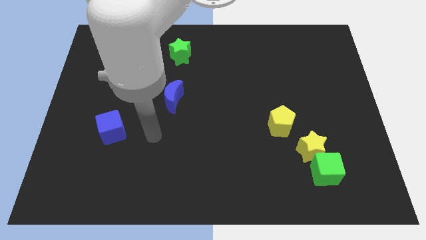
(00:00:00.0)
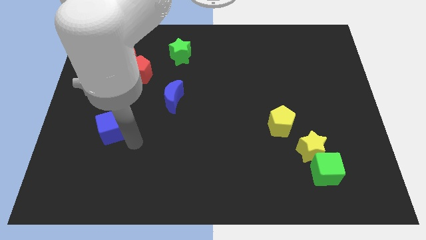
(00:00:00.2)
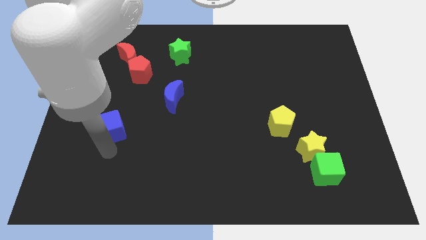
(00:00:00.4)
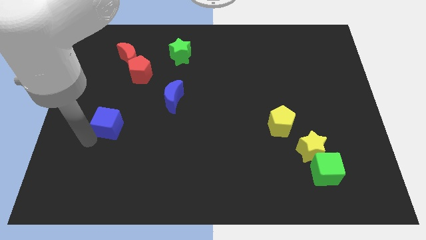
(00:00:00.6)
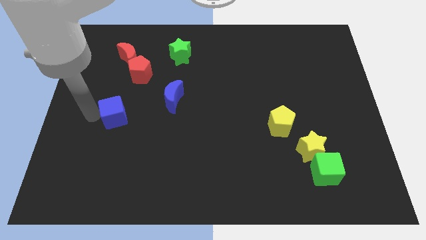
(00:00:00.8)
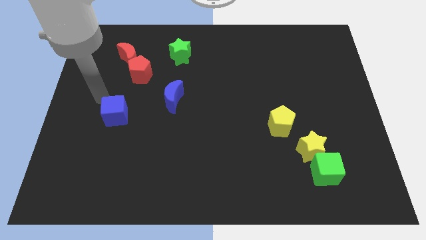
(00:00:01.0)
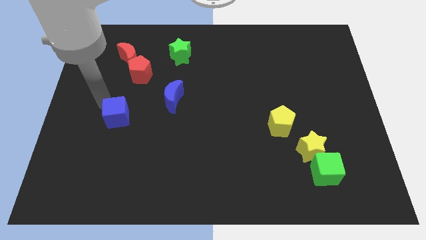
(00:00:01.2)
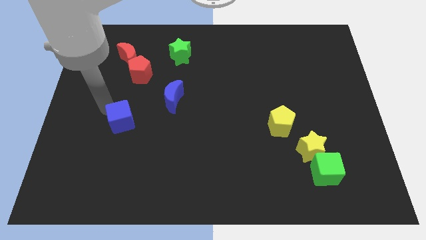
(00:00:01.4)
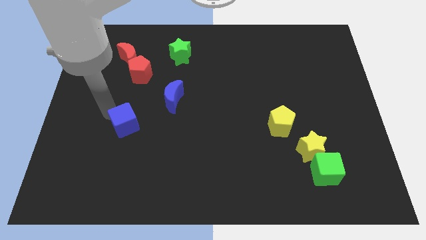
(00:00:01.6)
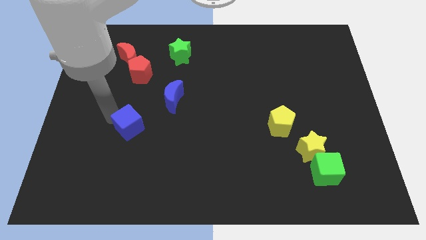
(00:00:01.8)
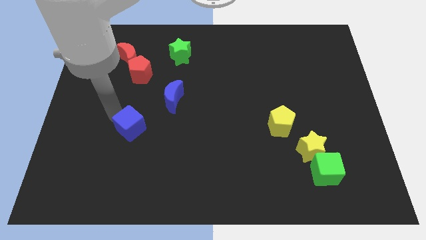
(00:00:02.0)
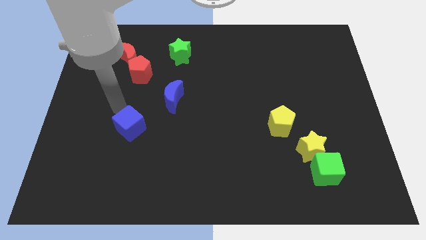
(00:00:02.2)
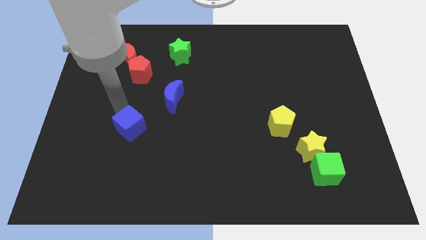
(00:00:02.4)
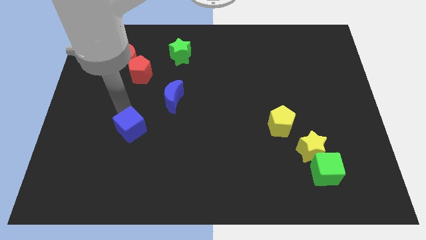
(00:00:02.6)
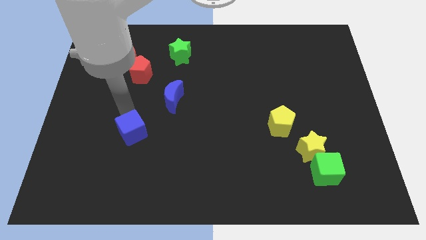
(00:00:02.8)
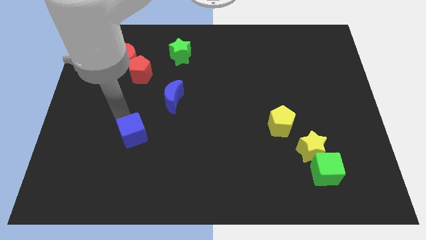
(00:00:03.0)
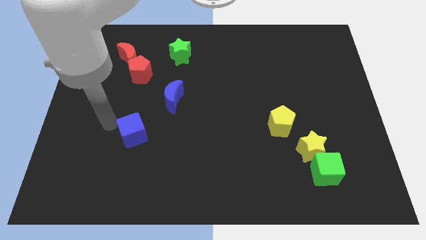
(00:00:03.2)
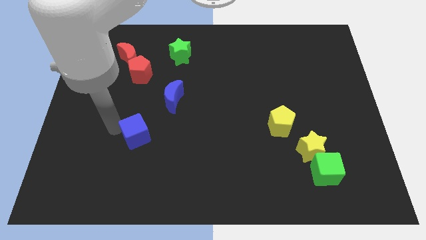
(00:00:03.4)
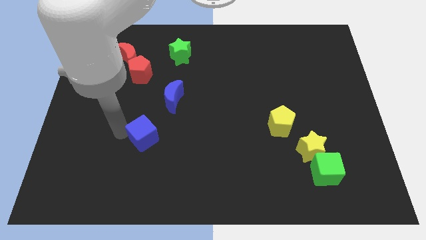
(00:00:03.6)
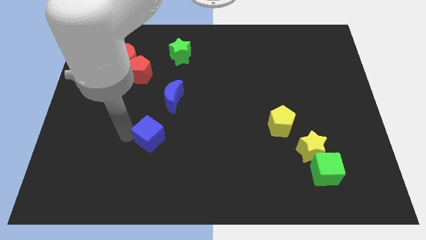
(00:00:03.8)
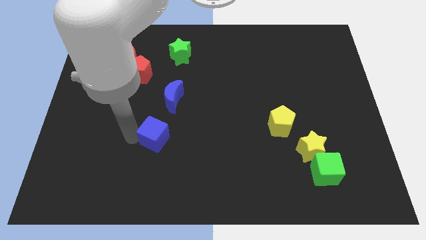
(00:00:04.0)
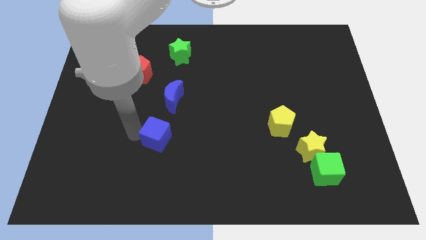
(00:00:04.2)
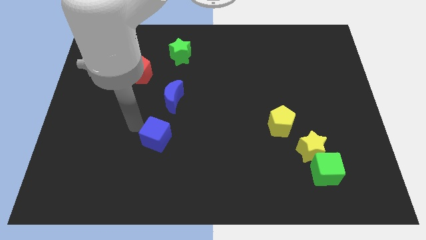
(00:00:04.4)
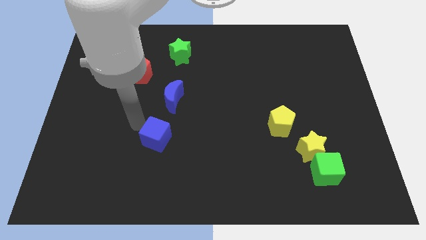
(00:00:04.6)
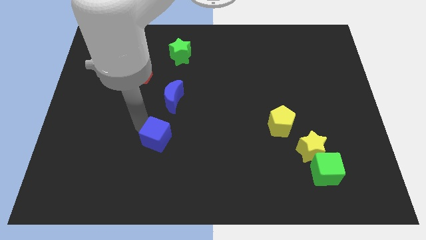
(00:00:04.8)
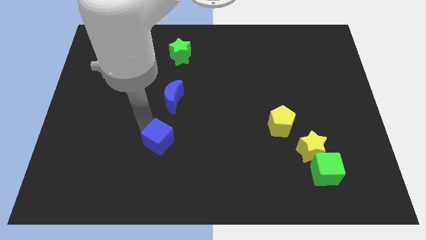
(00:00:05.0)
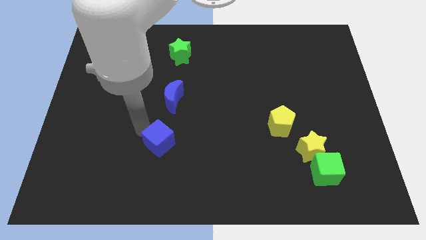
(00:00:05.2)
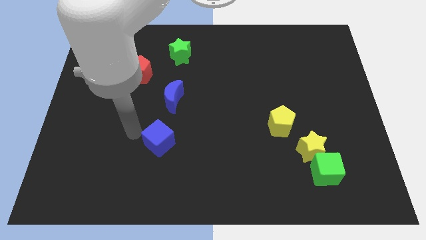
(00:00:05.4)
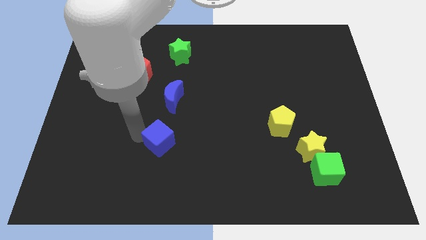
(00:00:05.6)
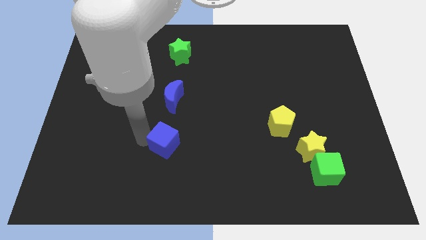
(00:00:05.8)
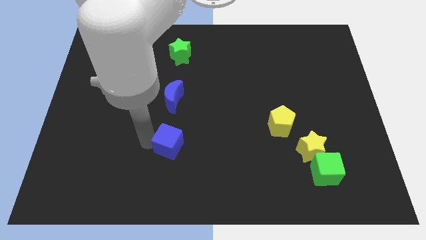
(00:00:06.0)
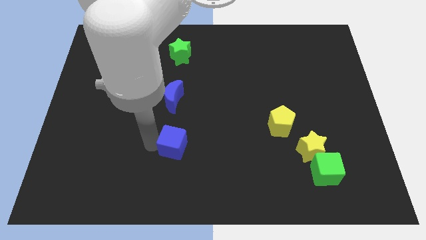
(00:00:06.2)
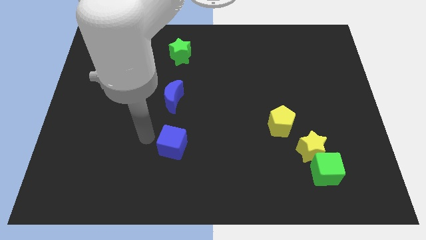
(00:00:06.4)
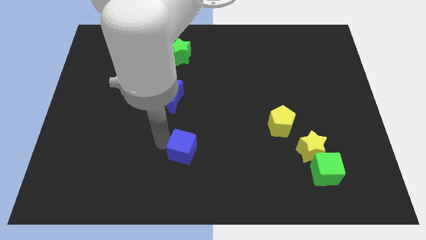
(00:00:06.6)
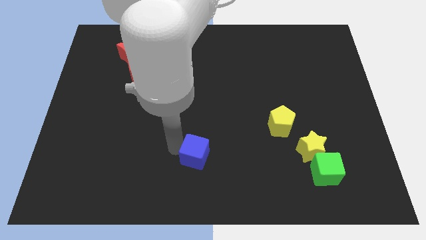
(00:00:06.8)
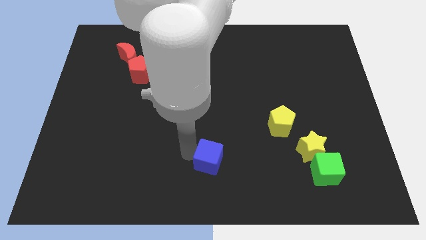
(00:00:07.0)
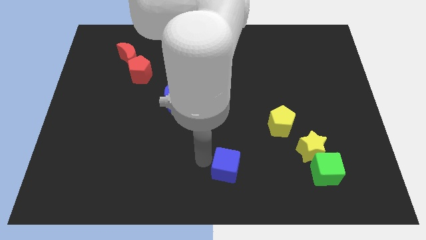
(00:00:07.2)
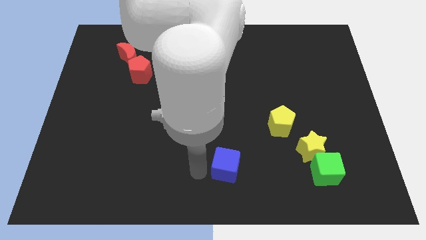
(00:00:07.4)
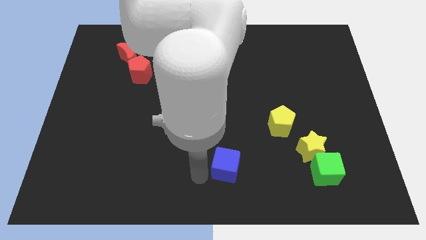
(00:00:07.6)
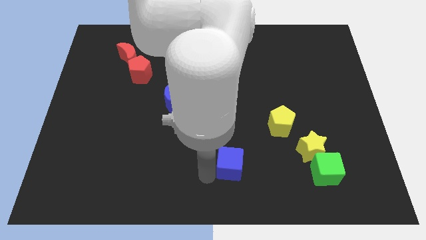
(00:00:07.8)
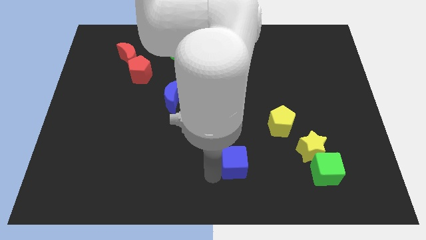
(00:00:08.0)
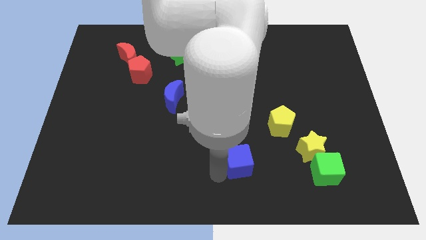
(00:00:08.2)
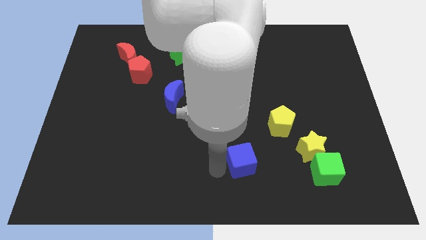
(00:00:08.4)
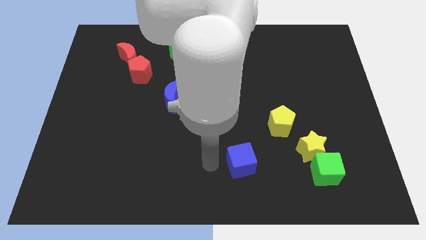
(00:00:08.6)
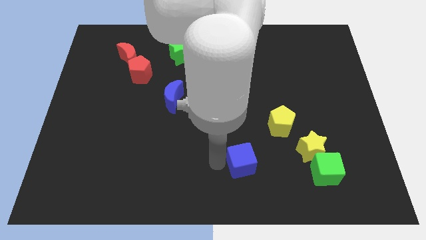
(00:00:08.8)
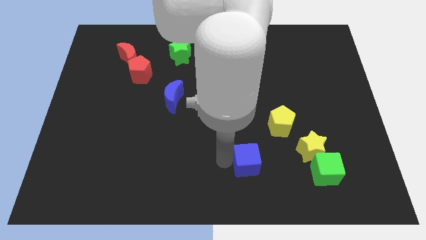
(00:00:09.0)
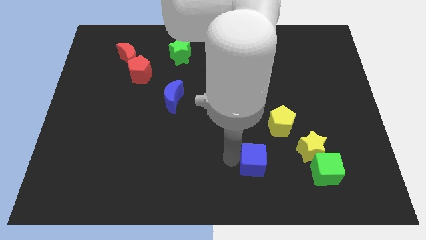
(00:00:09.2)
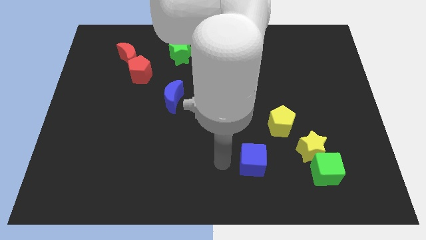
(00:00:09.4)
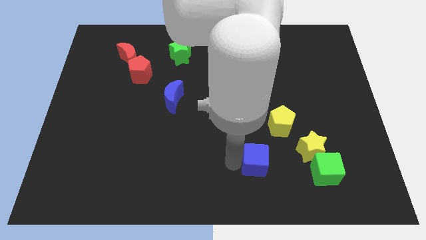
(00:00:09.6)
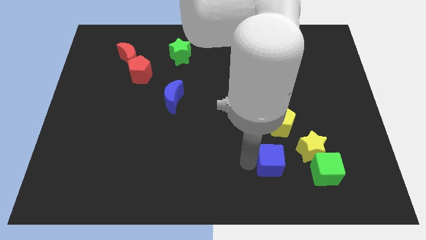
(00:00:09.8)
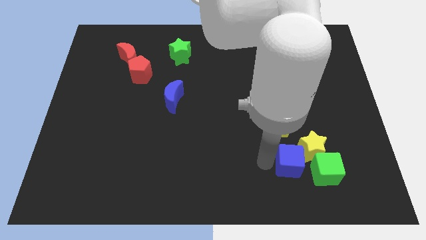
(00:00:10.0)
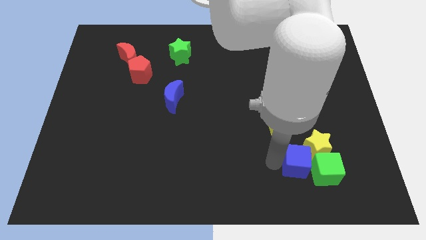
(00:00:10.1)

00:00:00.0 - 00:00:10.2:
slide the blue cube next to the green cube

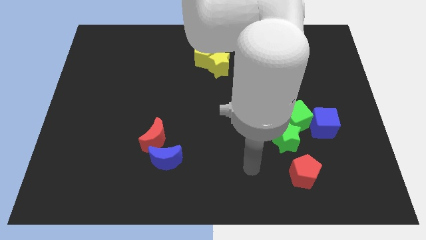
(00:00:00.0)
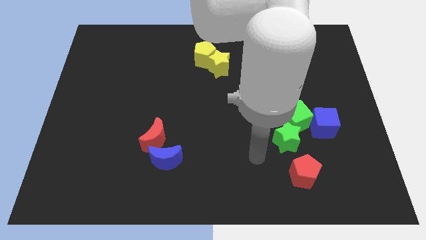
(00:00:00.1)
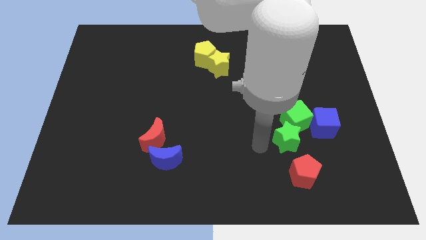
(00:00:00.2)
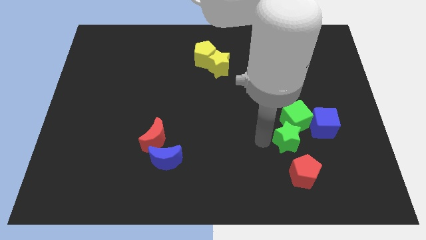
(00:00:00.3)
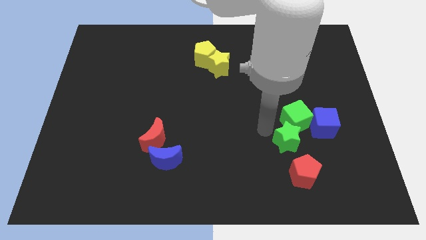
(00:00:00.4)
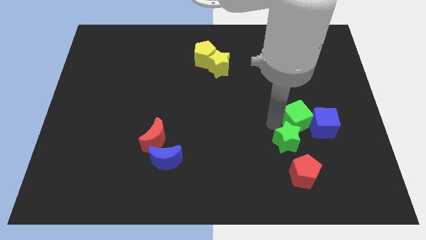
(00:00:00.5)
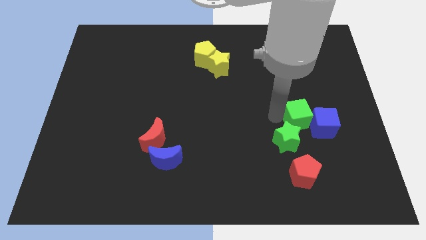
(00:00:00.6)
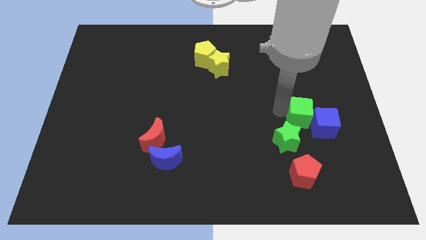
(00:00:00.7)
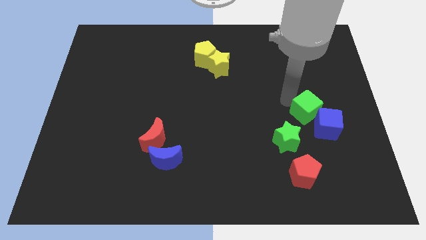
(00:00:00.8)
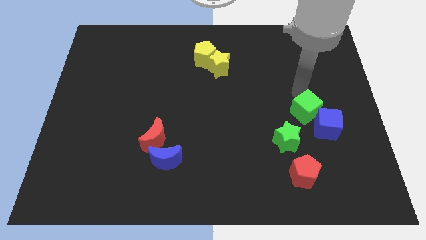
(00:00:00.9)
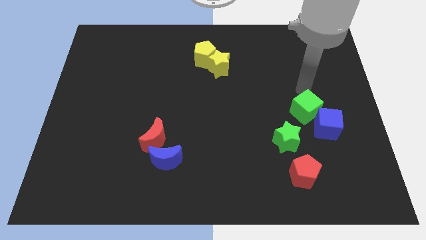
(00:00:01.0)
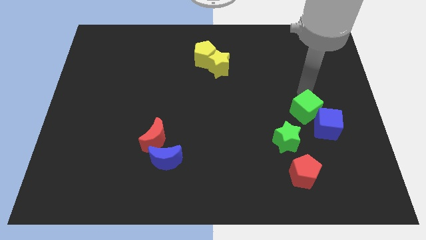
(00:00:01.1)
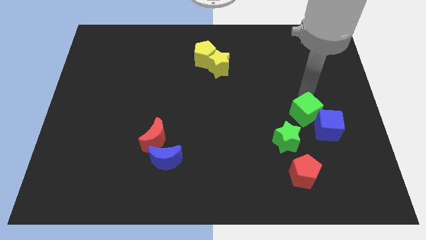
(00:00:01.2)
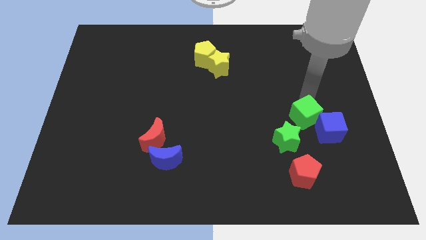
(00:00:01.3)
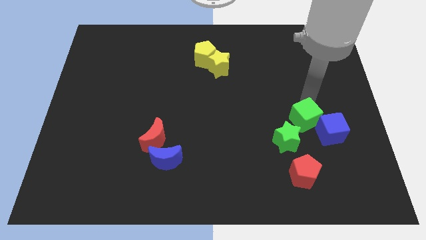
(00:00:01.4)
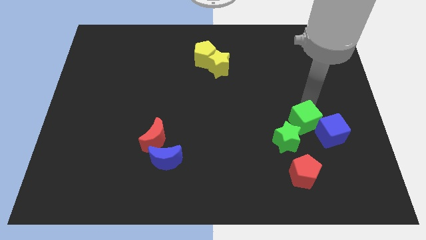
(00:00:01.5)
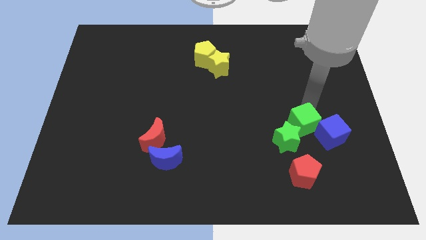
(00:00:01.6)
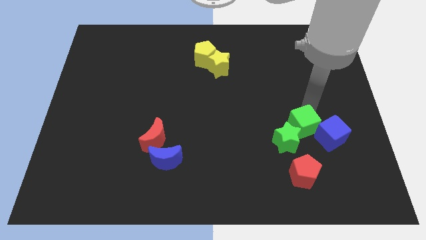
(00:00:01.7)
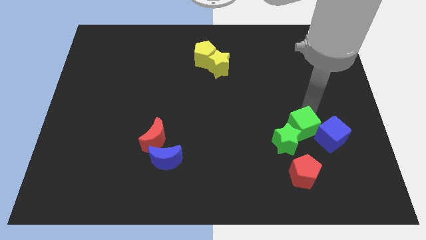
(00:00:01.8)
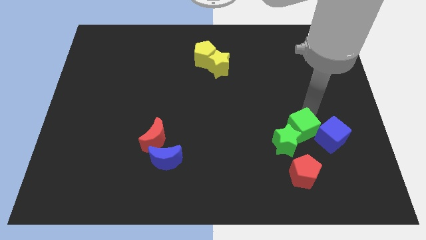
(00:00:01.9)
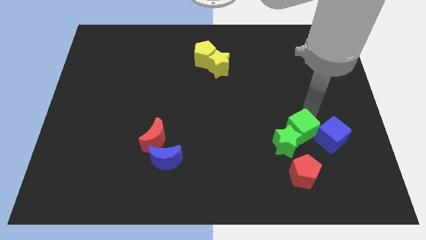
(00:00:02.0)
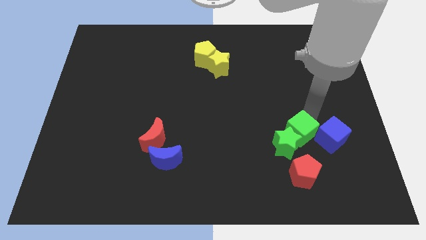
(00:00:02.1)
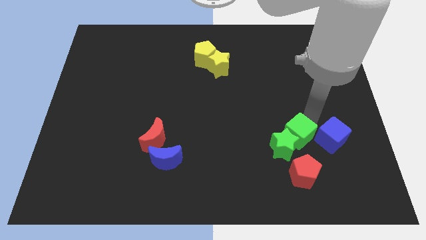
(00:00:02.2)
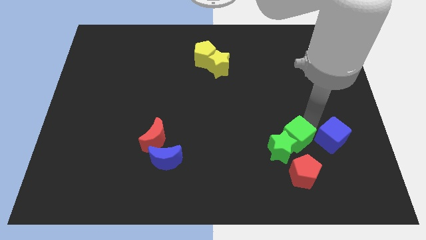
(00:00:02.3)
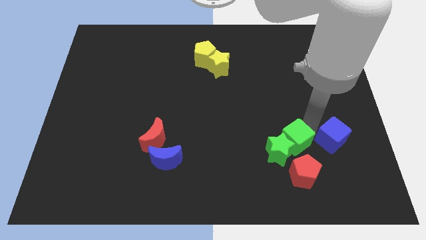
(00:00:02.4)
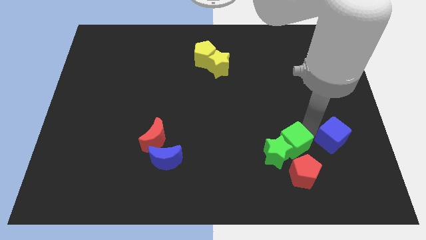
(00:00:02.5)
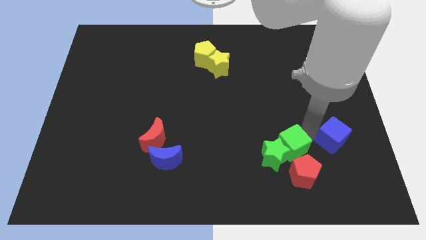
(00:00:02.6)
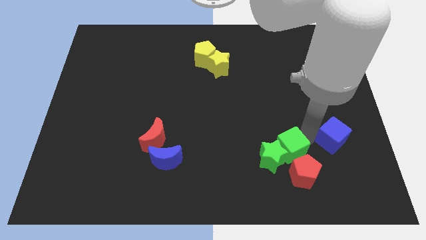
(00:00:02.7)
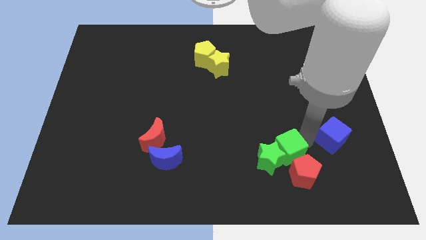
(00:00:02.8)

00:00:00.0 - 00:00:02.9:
slide the green cube to the red pentagon
